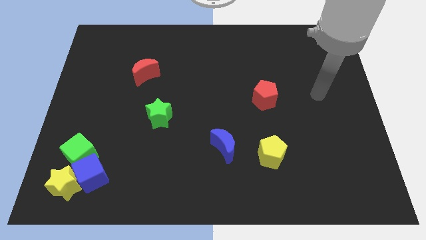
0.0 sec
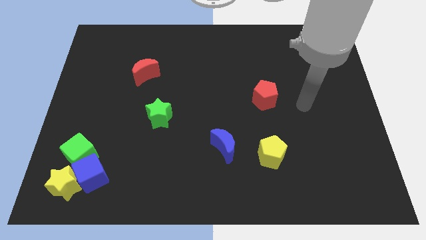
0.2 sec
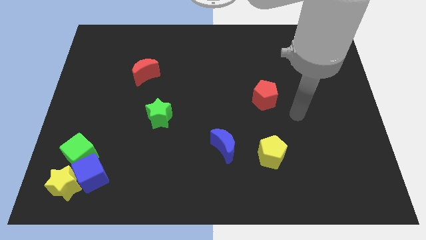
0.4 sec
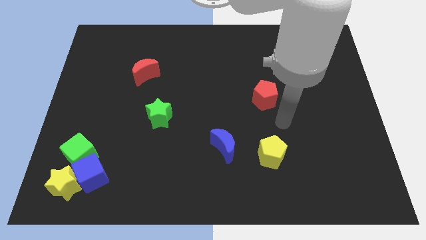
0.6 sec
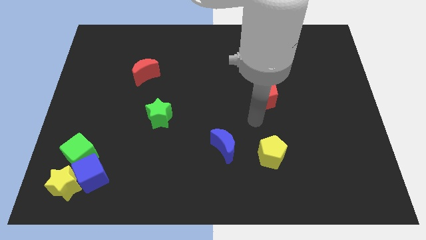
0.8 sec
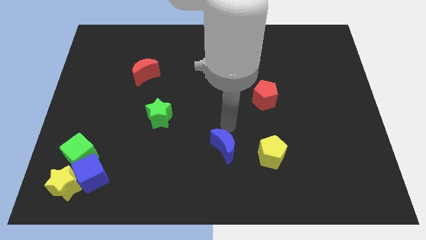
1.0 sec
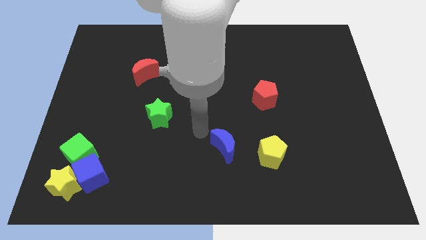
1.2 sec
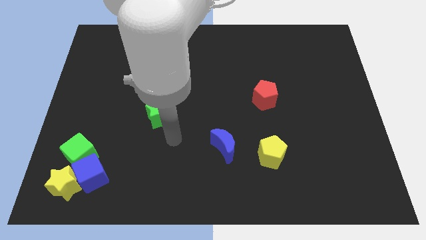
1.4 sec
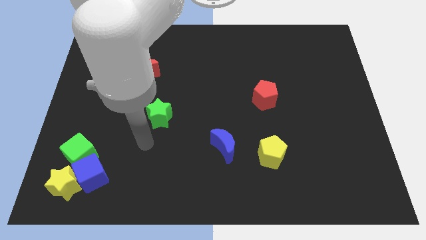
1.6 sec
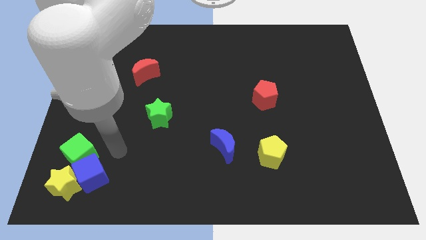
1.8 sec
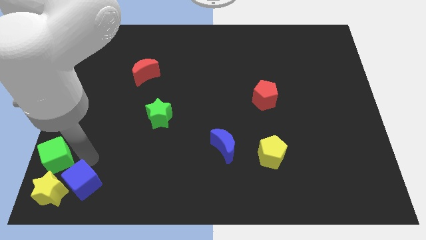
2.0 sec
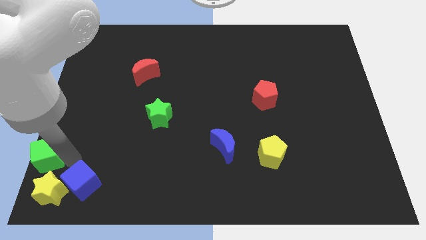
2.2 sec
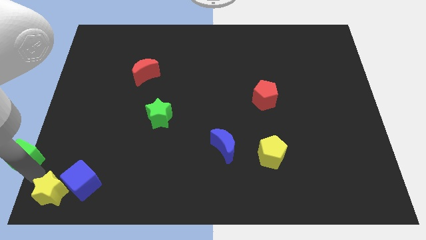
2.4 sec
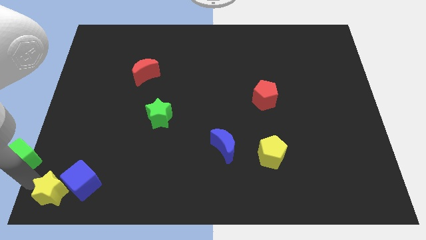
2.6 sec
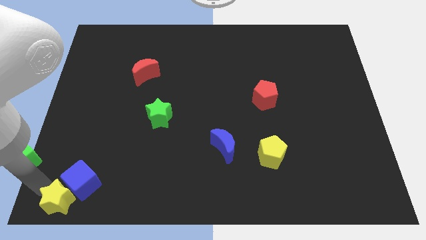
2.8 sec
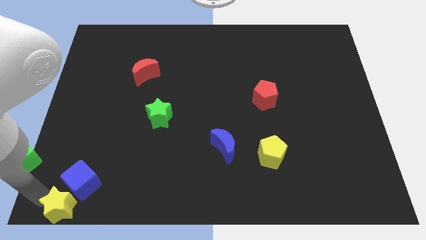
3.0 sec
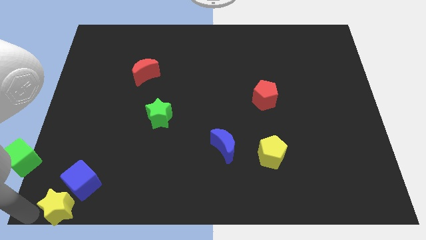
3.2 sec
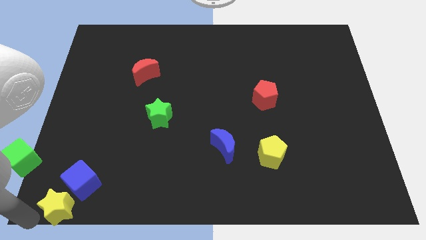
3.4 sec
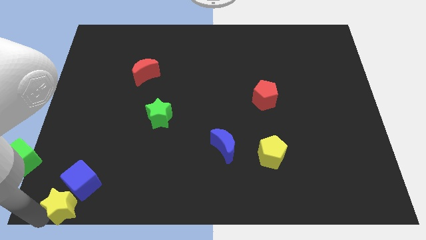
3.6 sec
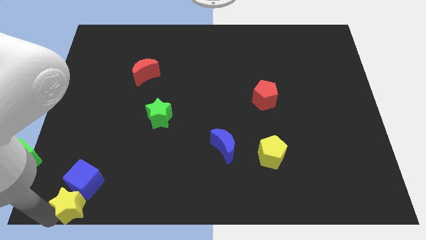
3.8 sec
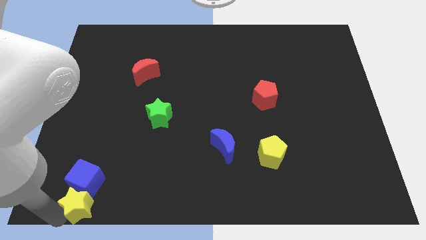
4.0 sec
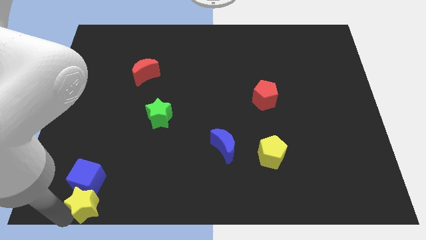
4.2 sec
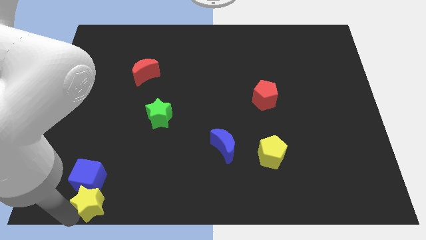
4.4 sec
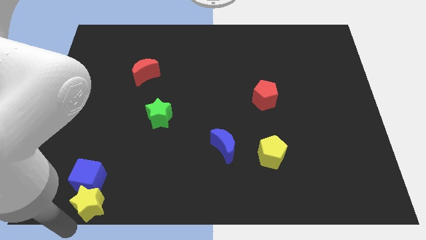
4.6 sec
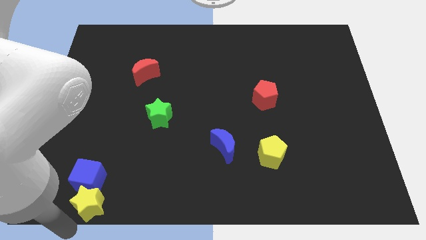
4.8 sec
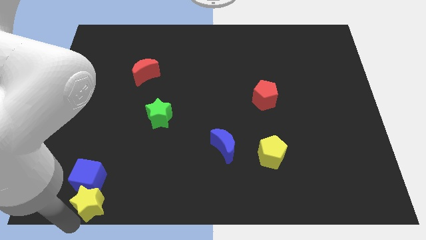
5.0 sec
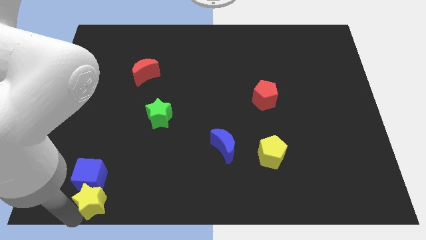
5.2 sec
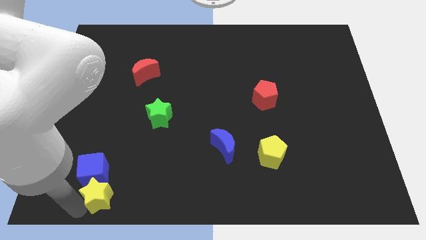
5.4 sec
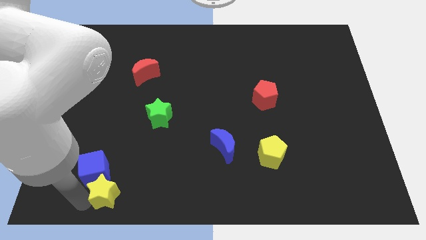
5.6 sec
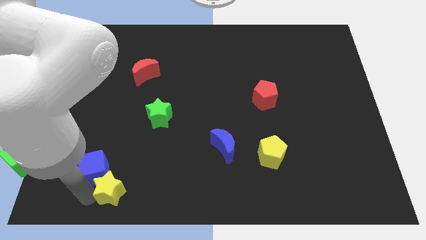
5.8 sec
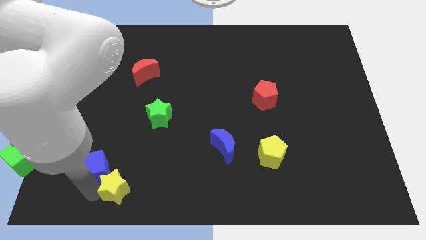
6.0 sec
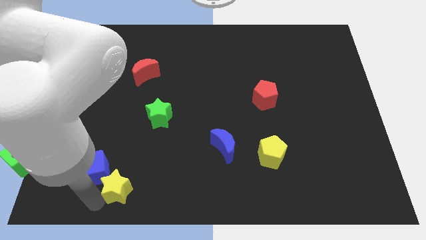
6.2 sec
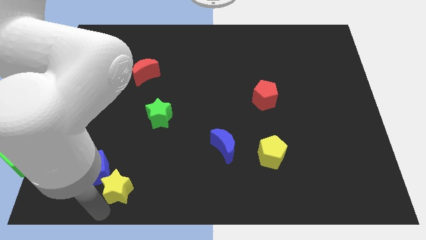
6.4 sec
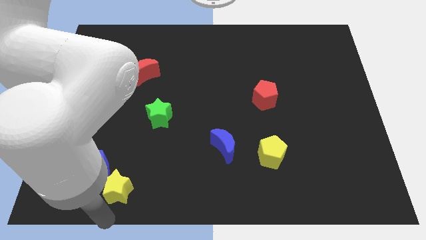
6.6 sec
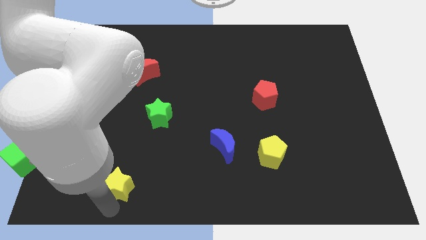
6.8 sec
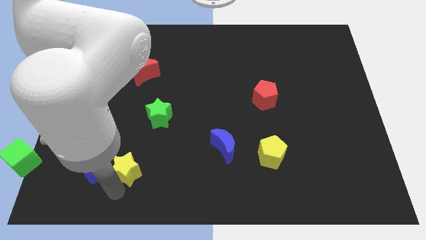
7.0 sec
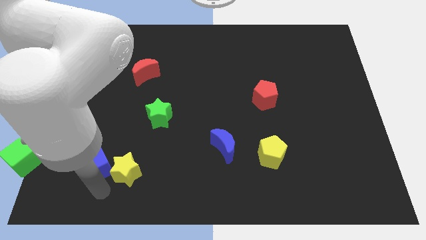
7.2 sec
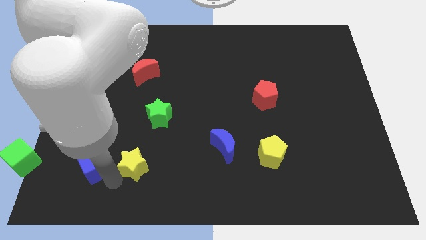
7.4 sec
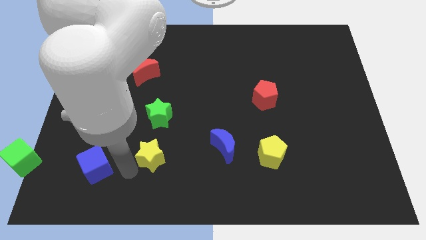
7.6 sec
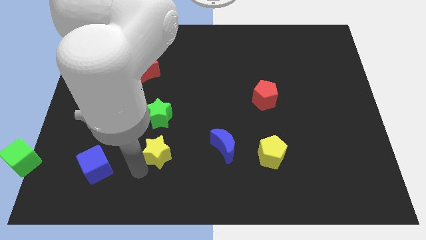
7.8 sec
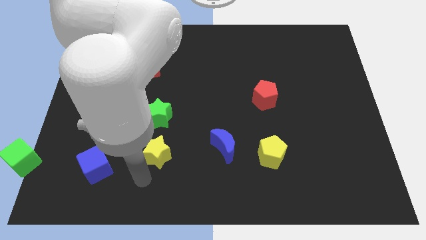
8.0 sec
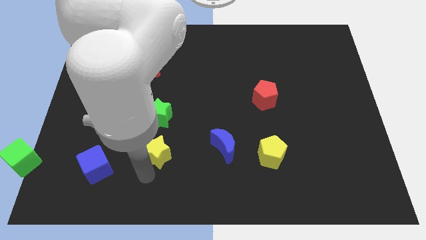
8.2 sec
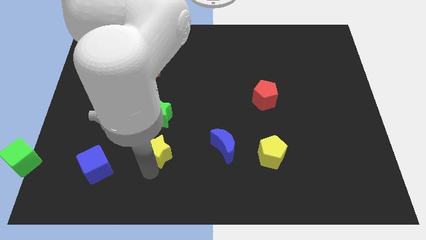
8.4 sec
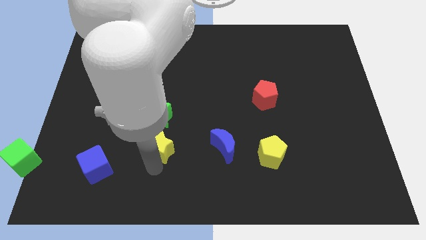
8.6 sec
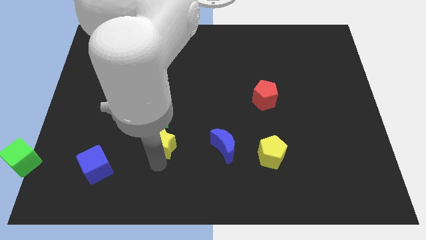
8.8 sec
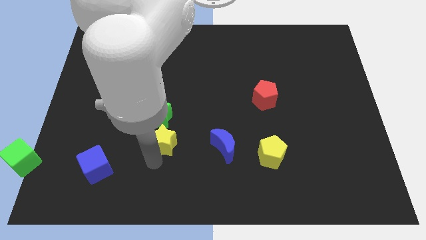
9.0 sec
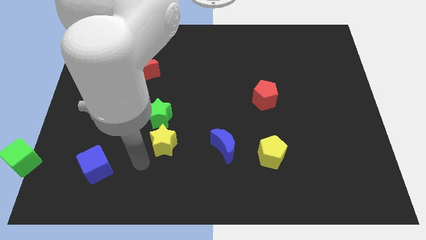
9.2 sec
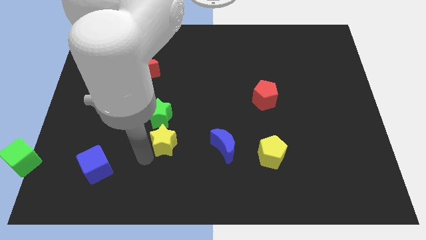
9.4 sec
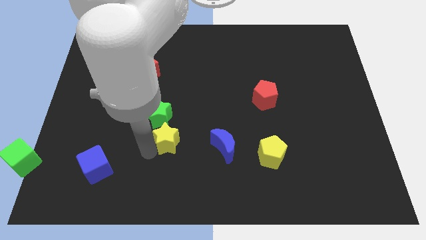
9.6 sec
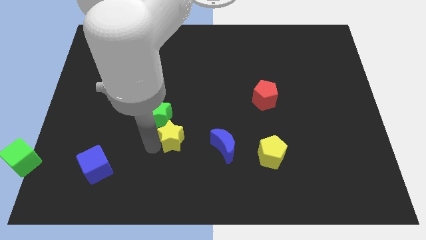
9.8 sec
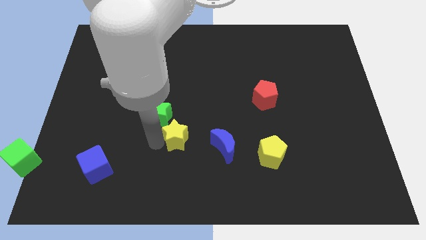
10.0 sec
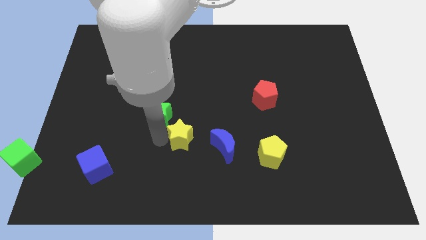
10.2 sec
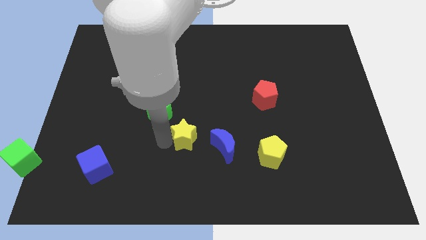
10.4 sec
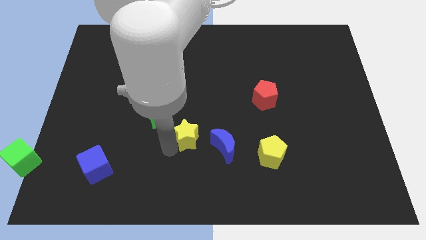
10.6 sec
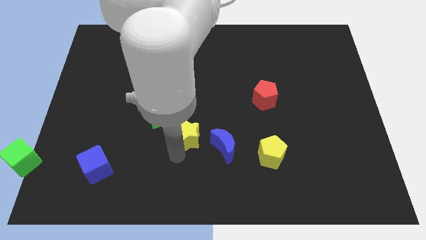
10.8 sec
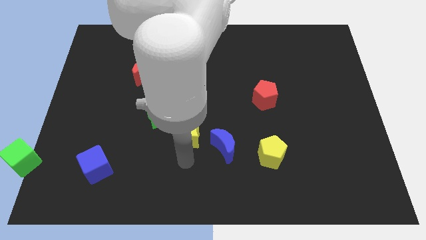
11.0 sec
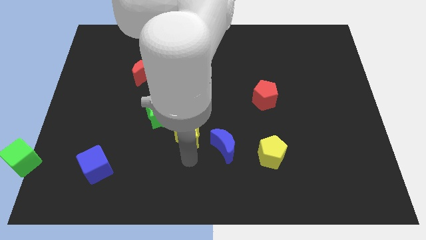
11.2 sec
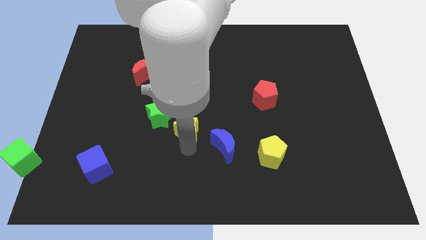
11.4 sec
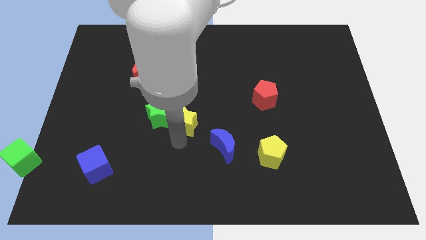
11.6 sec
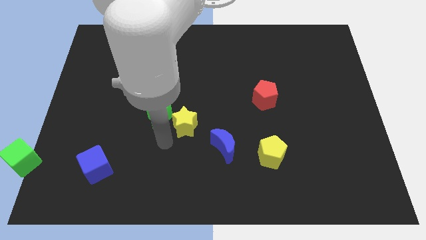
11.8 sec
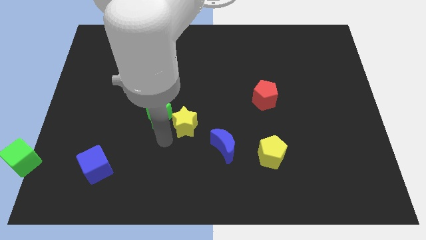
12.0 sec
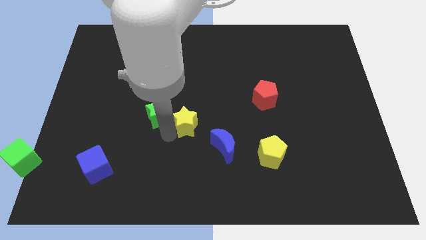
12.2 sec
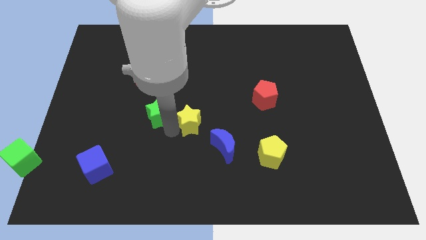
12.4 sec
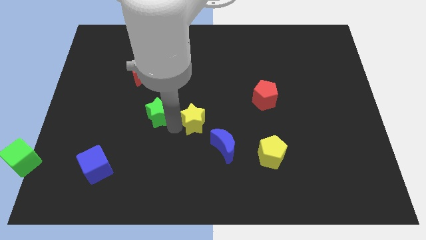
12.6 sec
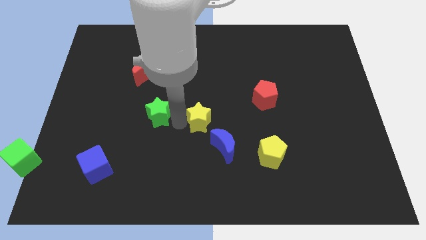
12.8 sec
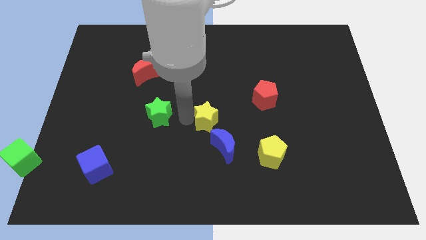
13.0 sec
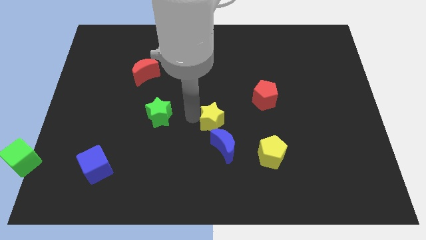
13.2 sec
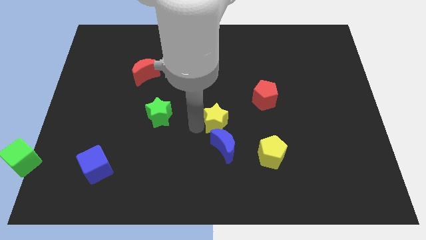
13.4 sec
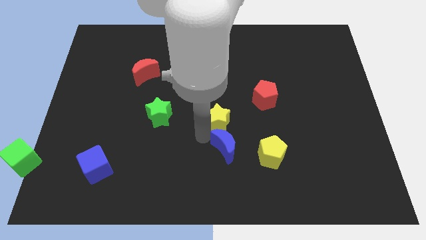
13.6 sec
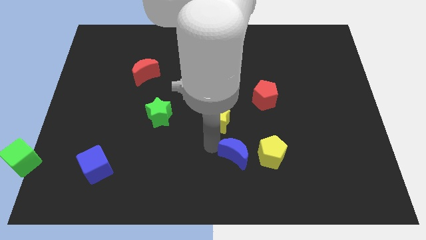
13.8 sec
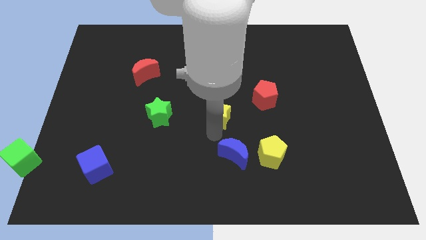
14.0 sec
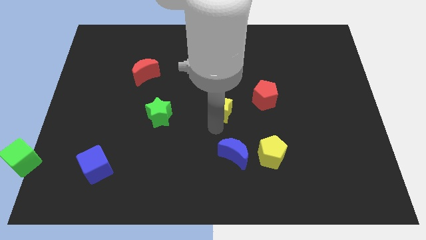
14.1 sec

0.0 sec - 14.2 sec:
push the yellow star to the left of the red pentagon
